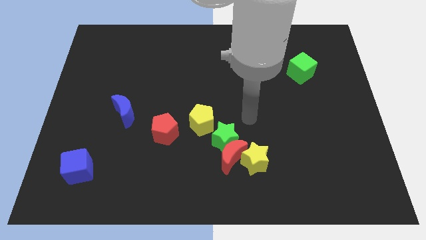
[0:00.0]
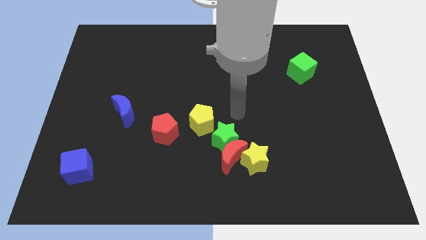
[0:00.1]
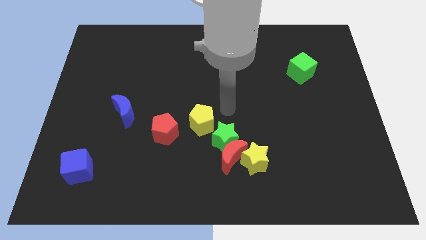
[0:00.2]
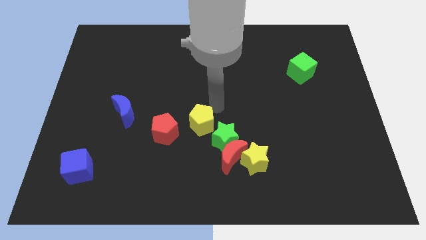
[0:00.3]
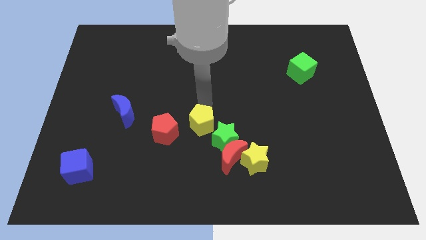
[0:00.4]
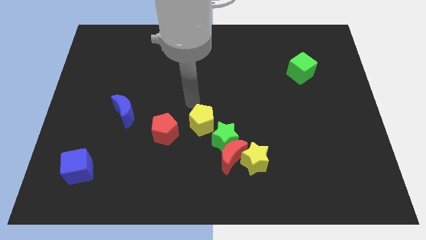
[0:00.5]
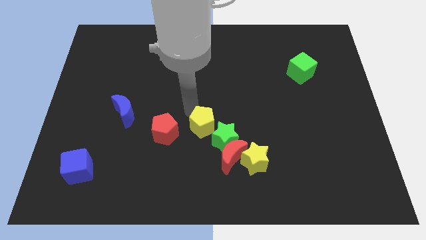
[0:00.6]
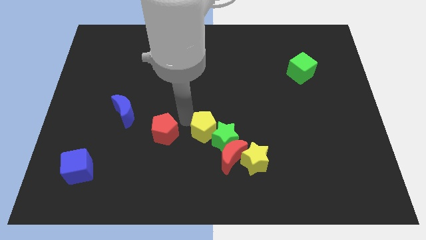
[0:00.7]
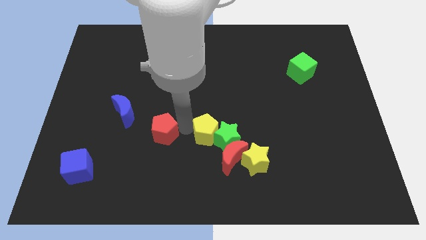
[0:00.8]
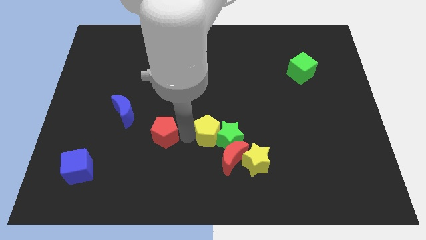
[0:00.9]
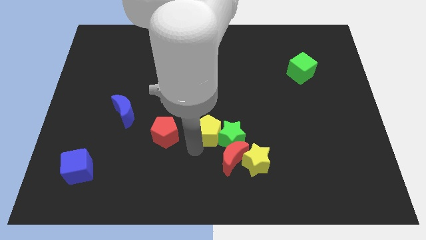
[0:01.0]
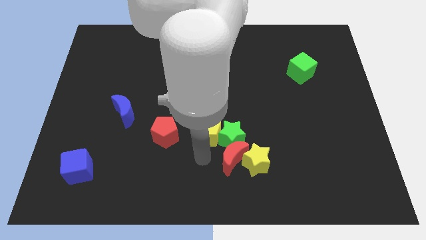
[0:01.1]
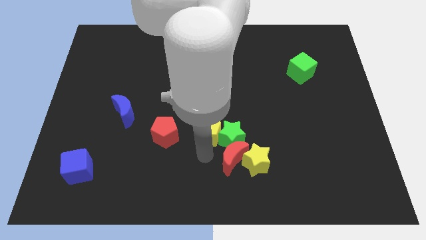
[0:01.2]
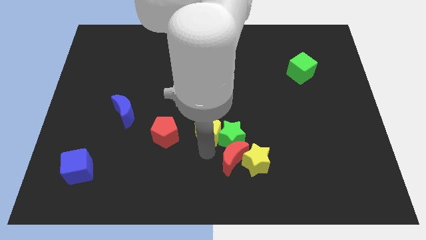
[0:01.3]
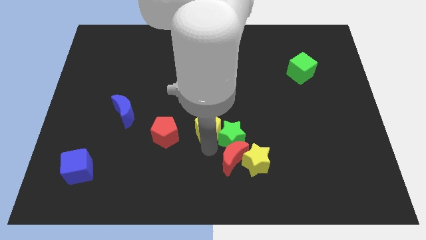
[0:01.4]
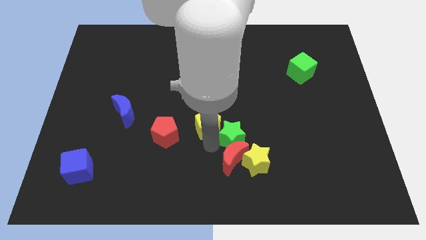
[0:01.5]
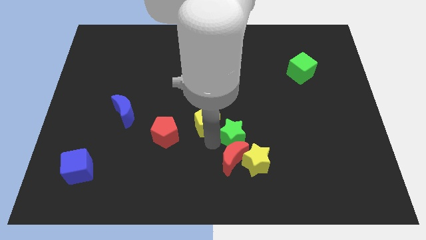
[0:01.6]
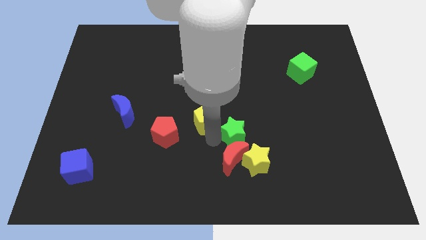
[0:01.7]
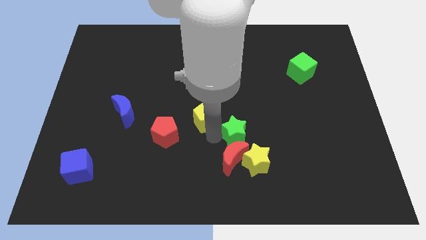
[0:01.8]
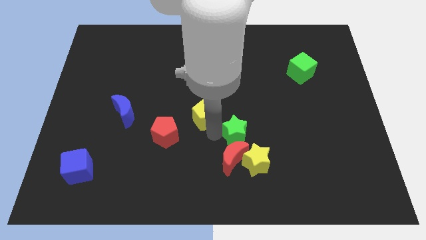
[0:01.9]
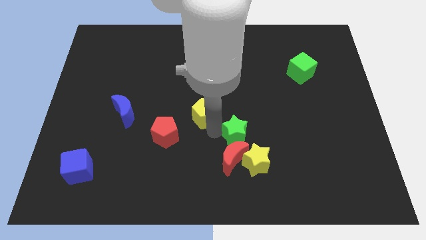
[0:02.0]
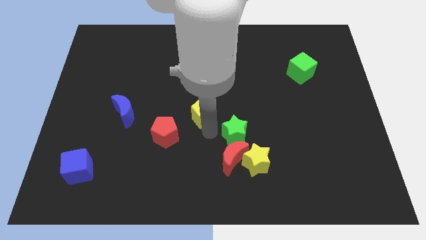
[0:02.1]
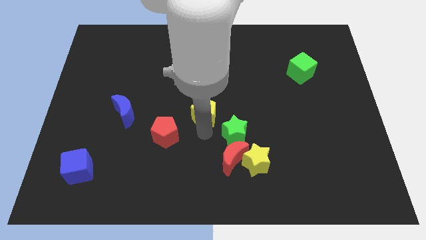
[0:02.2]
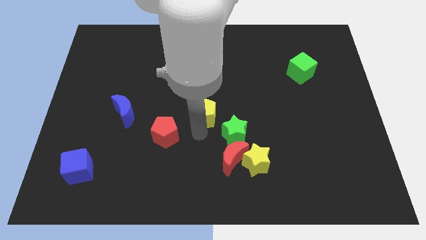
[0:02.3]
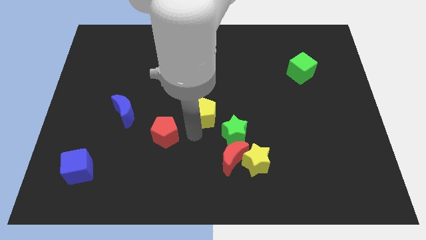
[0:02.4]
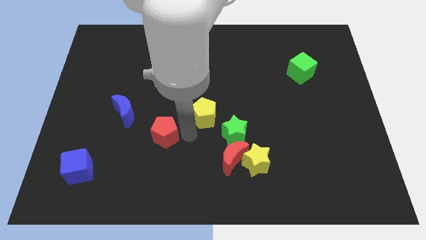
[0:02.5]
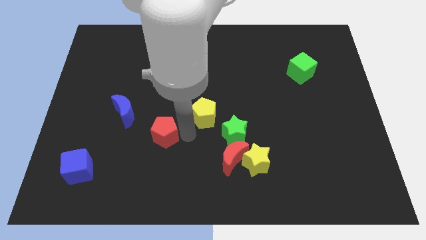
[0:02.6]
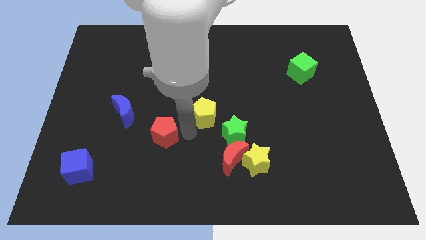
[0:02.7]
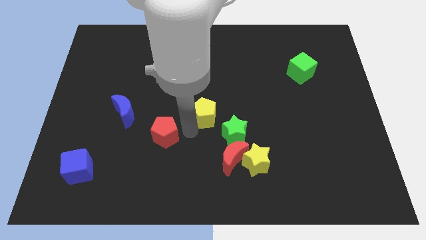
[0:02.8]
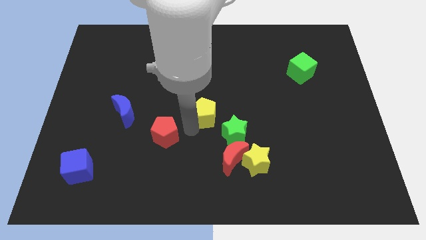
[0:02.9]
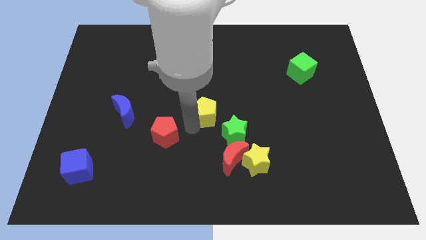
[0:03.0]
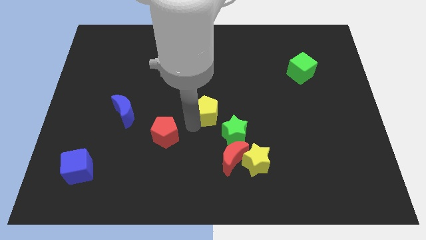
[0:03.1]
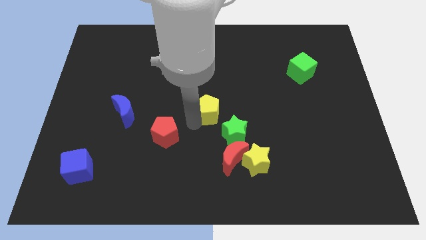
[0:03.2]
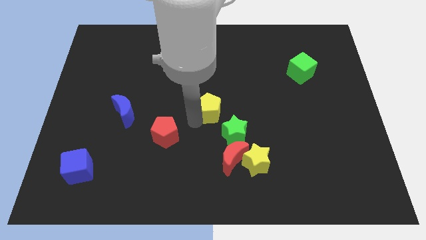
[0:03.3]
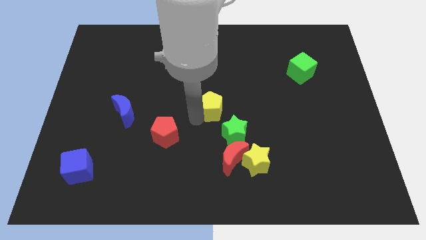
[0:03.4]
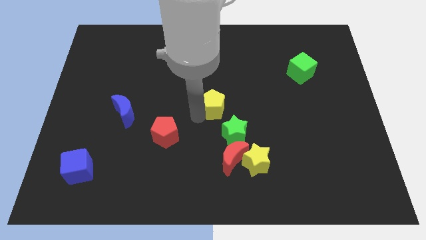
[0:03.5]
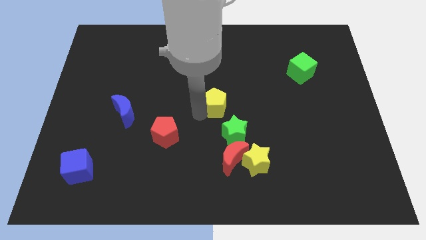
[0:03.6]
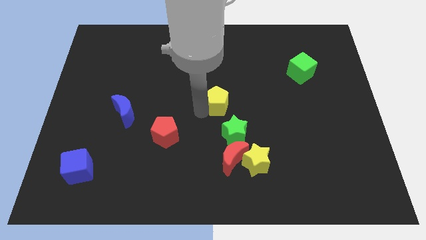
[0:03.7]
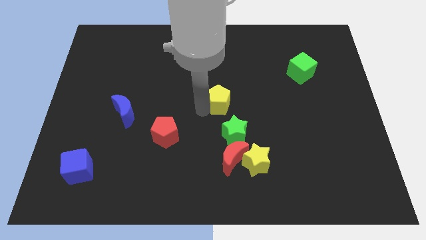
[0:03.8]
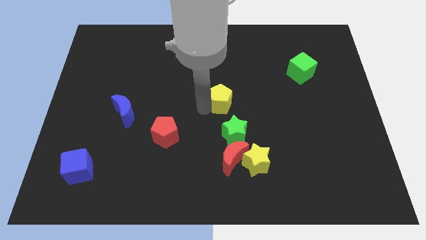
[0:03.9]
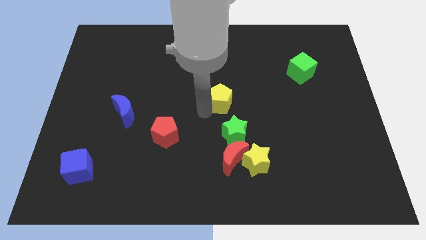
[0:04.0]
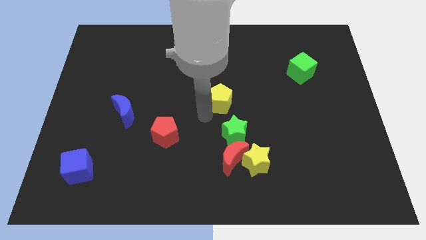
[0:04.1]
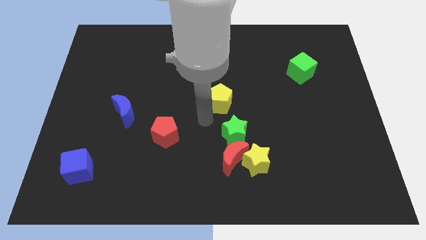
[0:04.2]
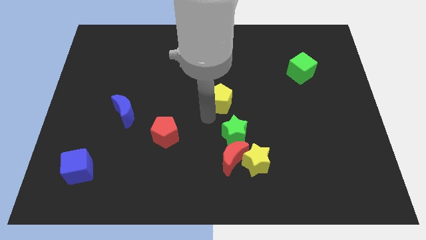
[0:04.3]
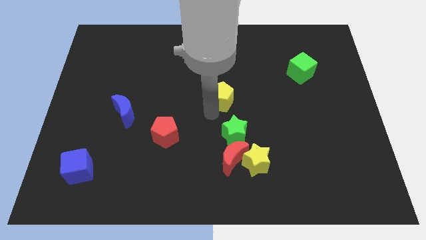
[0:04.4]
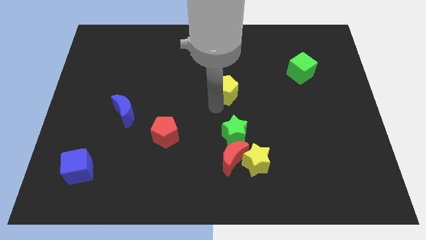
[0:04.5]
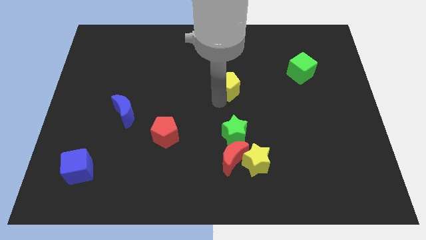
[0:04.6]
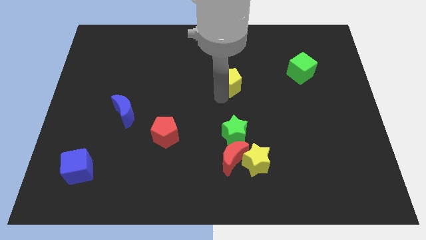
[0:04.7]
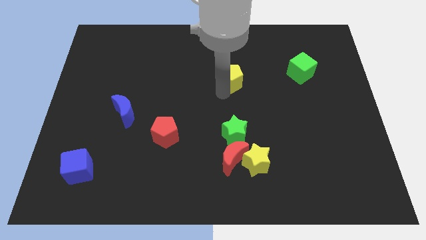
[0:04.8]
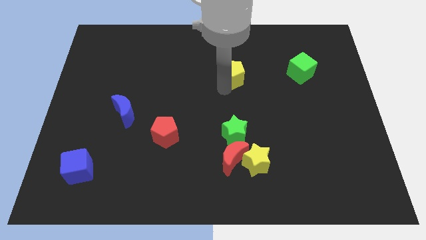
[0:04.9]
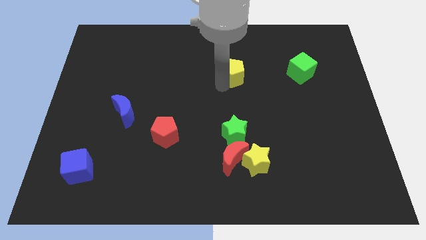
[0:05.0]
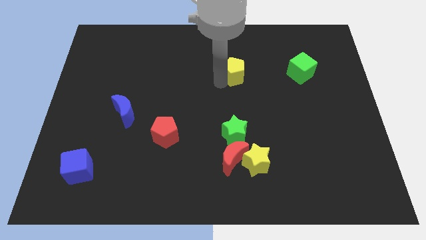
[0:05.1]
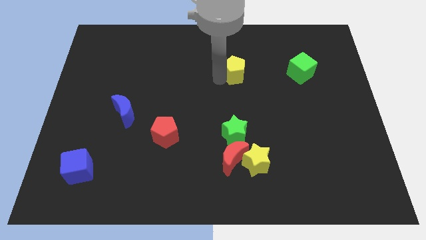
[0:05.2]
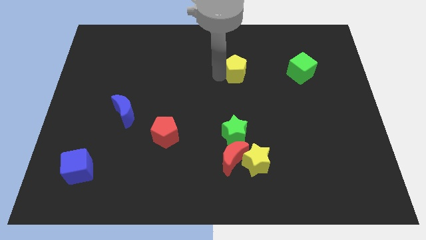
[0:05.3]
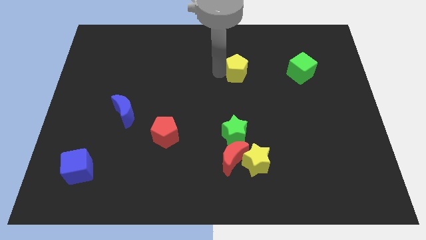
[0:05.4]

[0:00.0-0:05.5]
push the yellow pentagon just left of the green cube

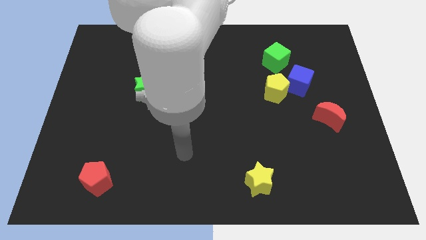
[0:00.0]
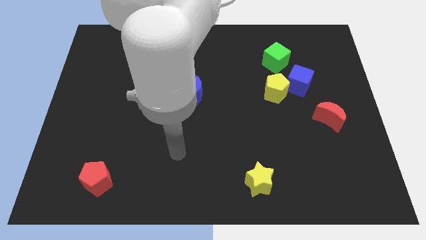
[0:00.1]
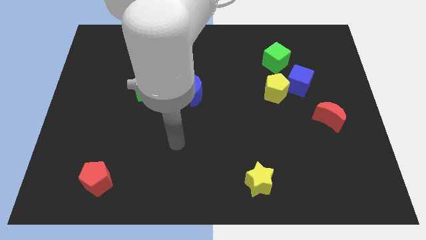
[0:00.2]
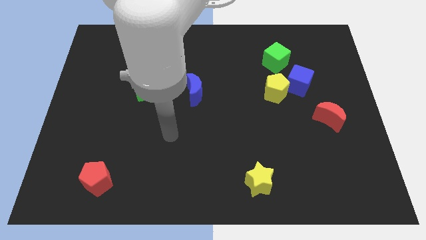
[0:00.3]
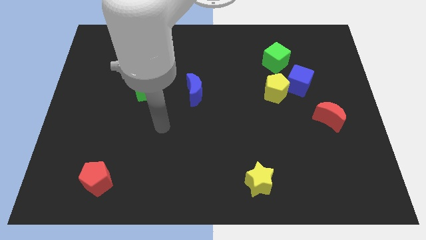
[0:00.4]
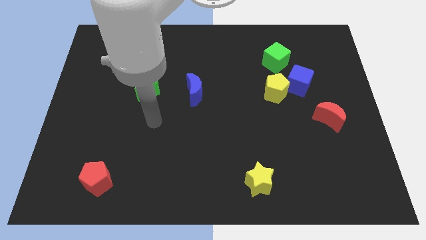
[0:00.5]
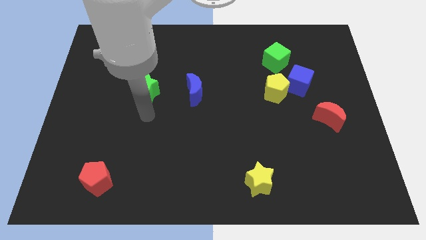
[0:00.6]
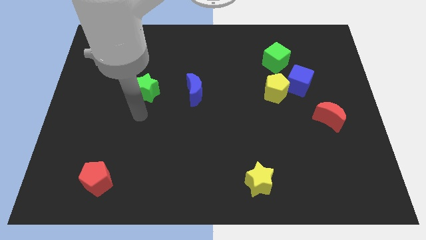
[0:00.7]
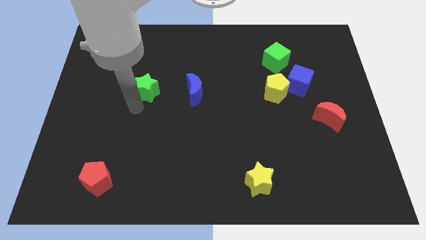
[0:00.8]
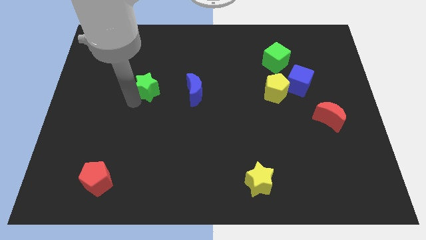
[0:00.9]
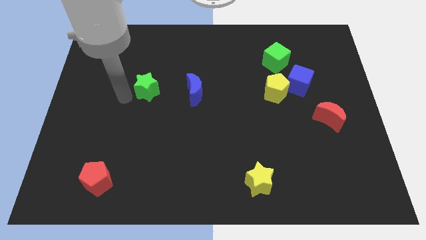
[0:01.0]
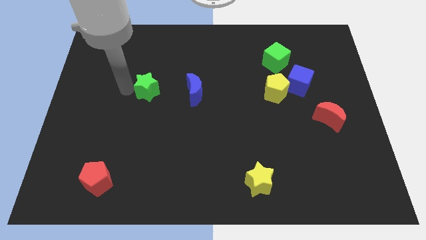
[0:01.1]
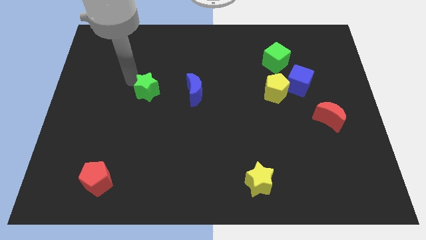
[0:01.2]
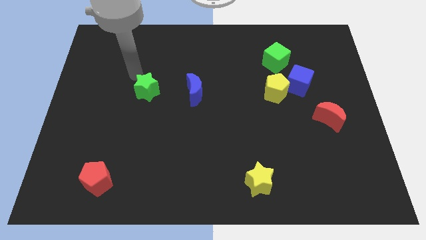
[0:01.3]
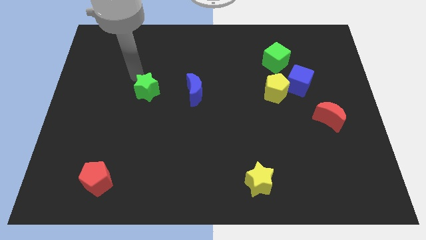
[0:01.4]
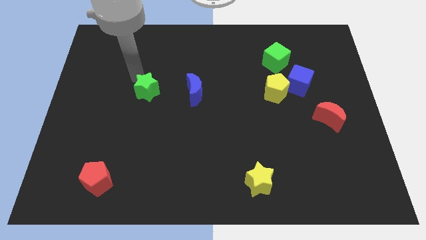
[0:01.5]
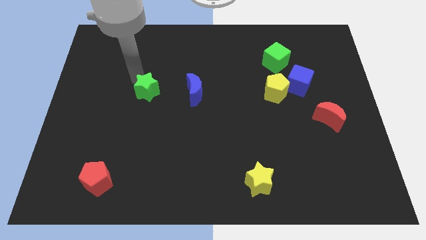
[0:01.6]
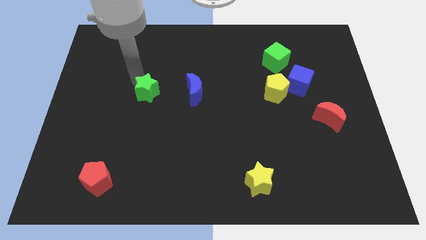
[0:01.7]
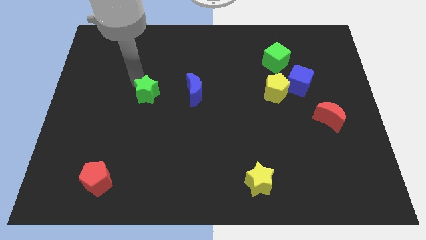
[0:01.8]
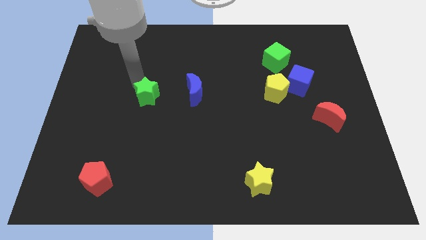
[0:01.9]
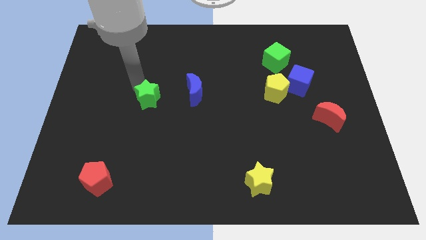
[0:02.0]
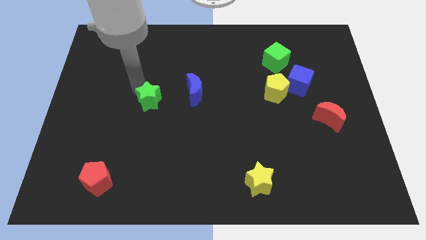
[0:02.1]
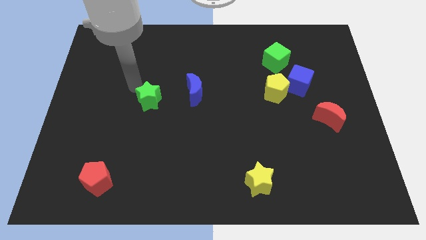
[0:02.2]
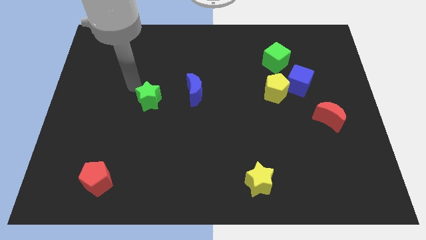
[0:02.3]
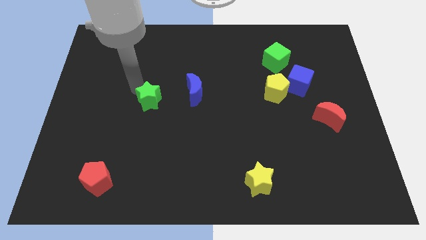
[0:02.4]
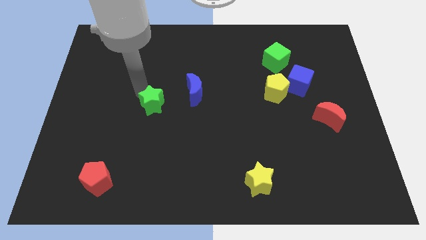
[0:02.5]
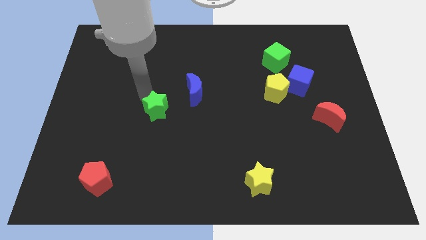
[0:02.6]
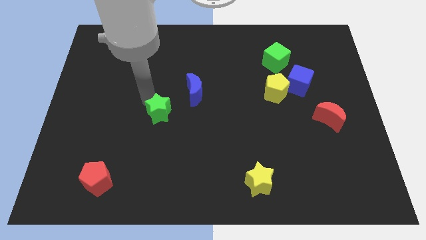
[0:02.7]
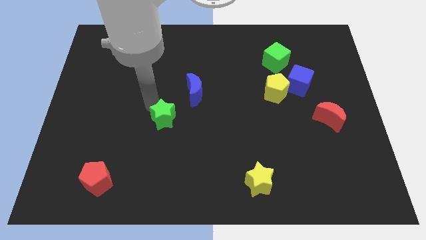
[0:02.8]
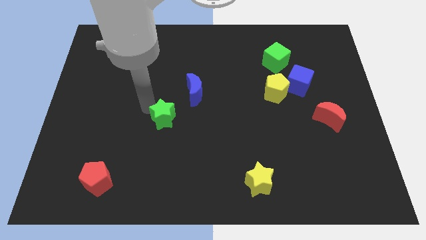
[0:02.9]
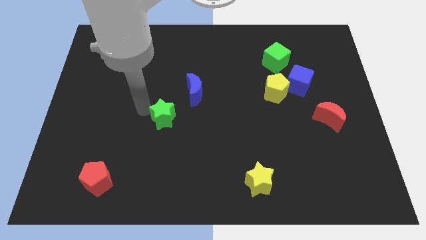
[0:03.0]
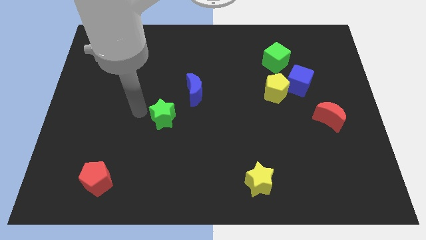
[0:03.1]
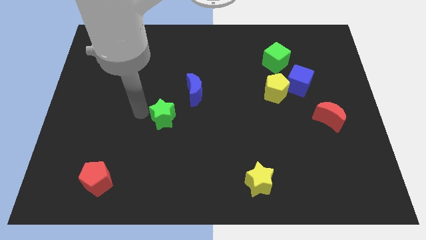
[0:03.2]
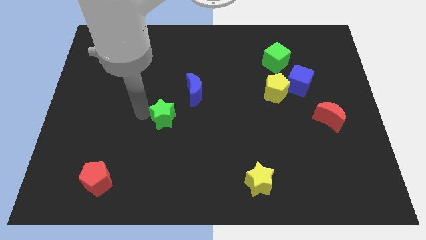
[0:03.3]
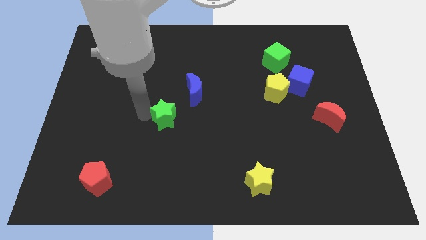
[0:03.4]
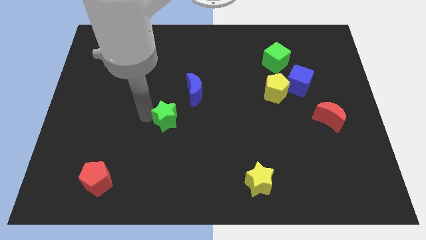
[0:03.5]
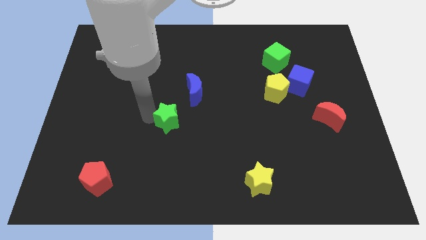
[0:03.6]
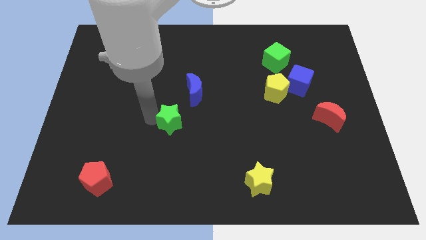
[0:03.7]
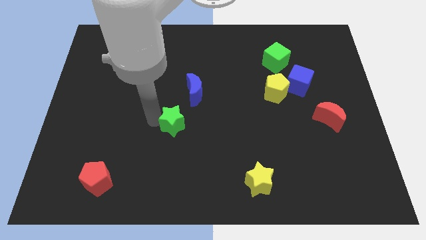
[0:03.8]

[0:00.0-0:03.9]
put the green star to the bottom side of the blue moon
